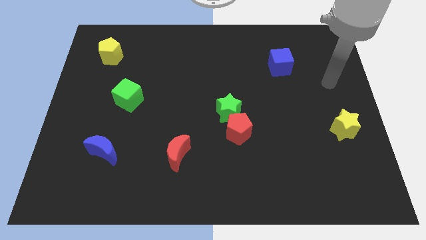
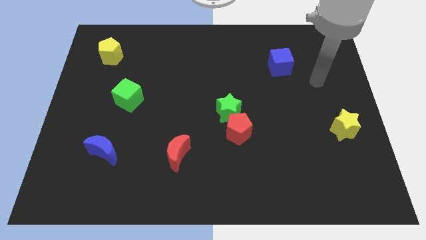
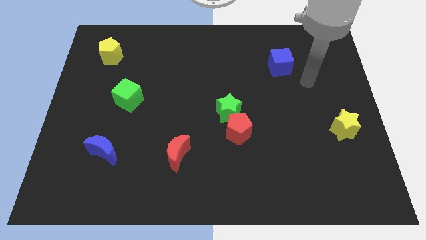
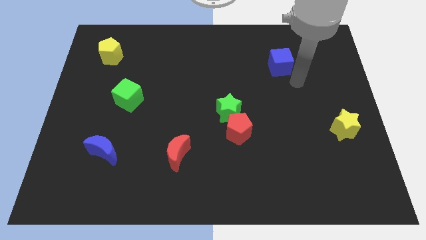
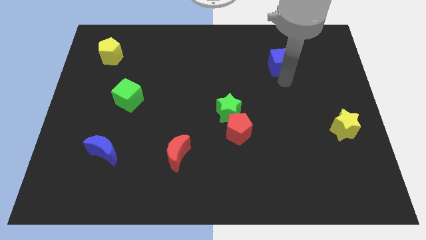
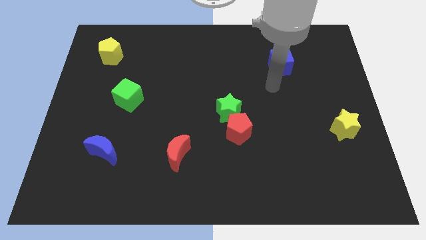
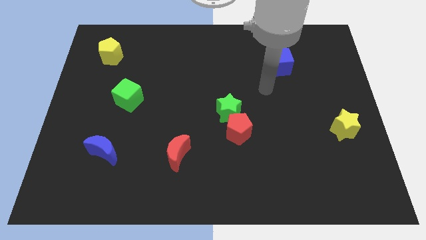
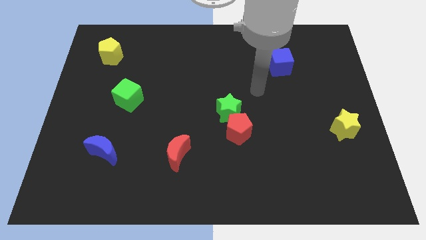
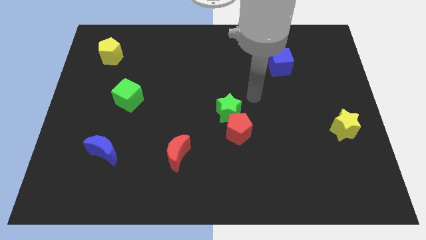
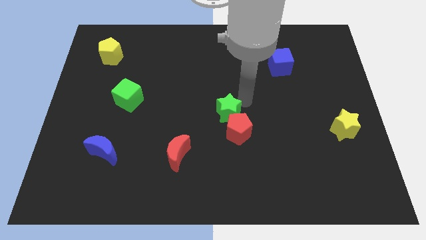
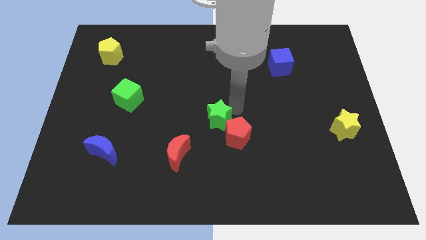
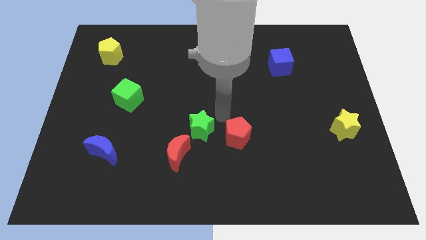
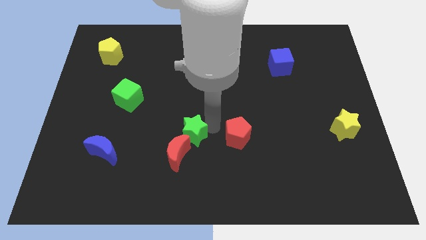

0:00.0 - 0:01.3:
pull the red pentagon apart from the green star

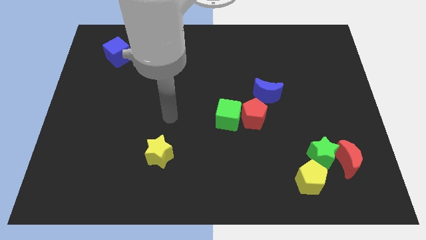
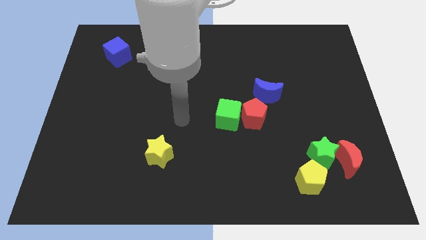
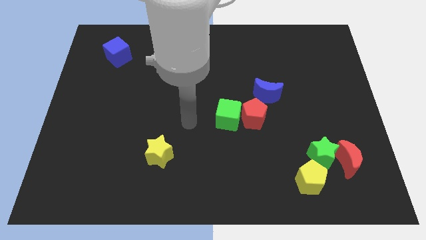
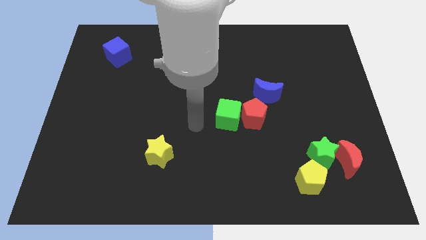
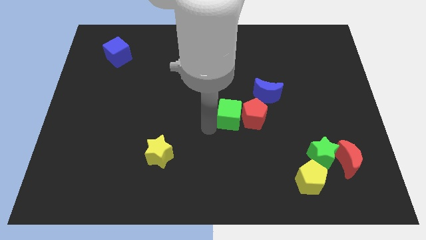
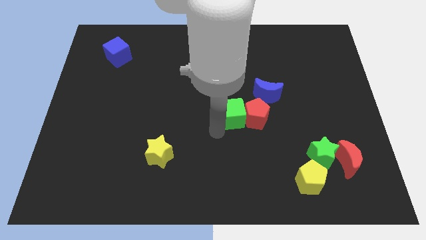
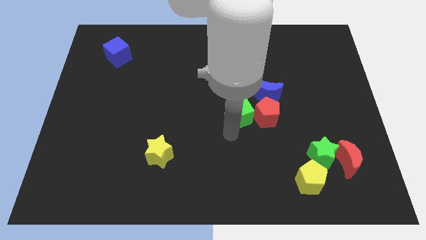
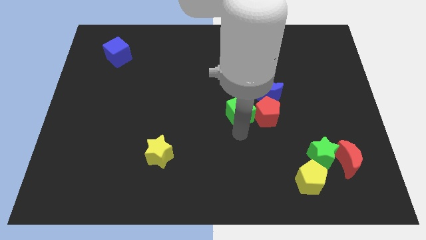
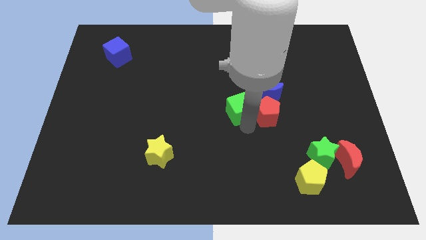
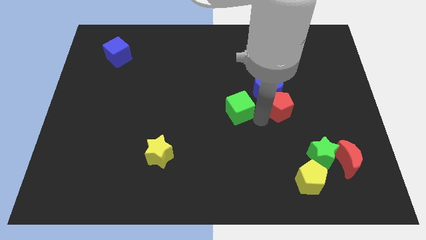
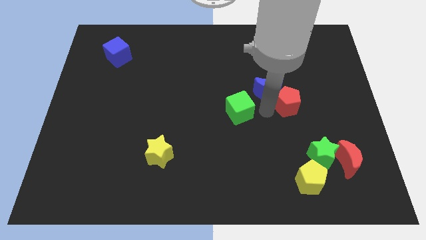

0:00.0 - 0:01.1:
separate the green cube from the red pentagon

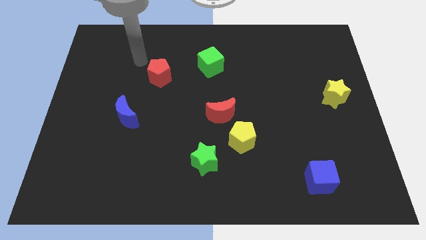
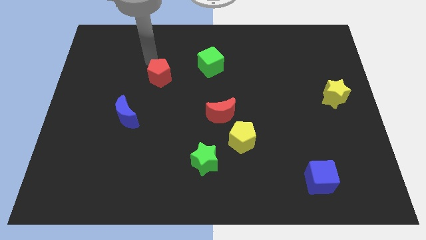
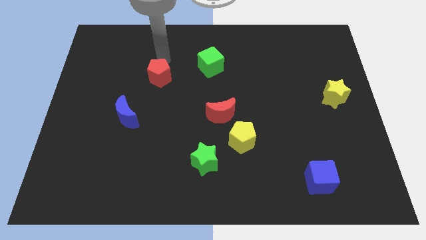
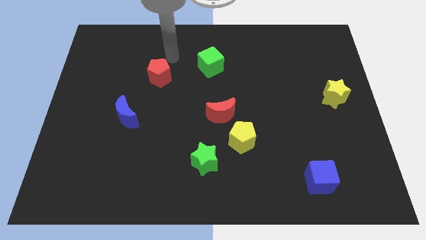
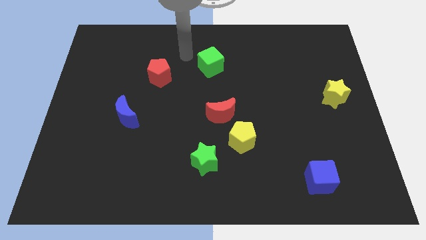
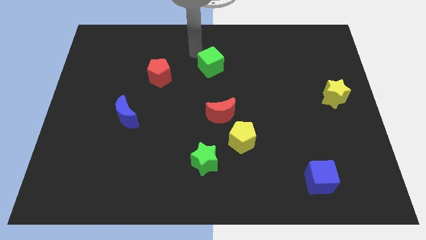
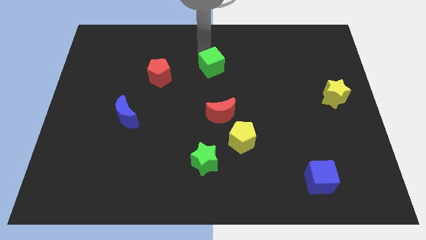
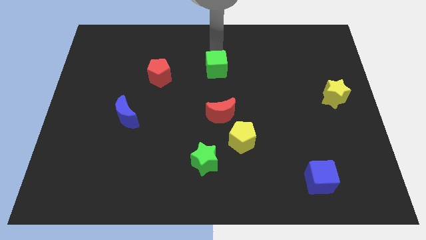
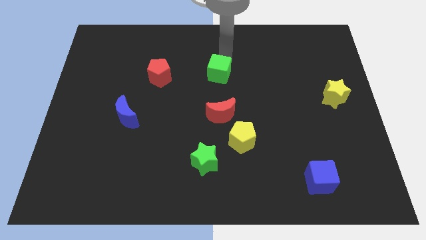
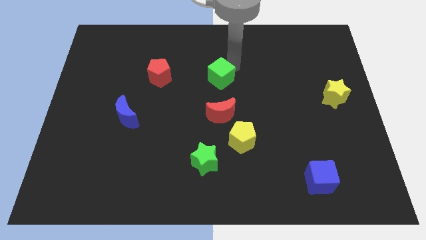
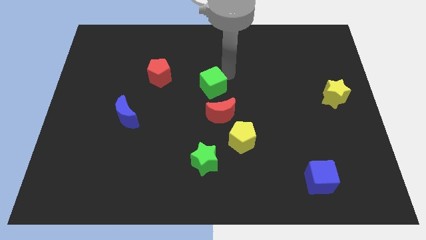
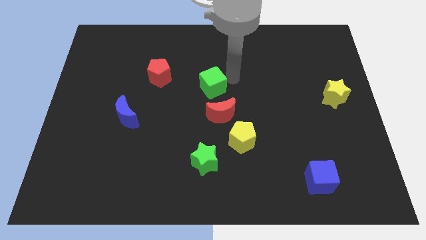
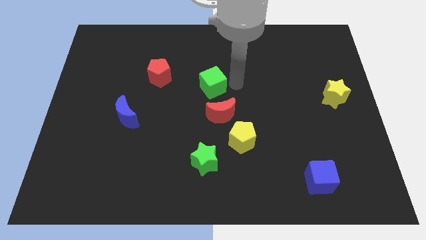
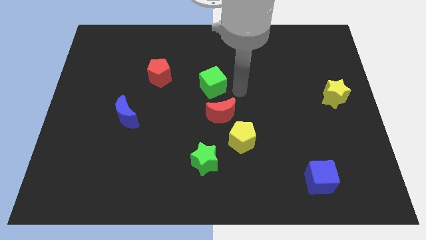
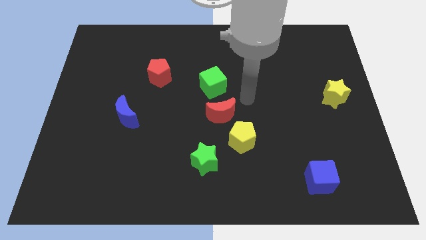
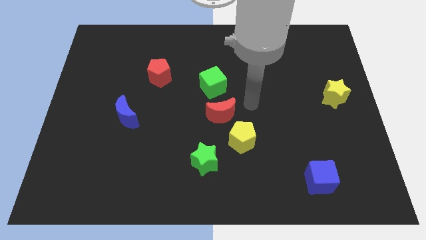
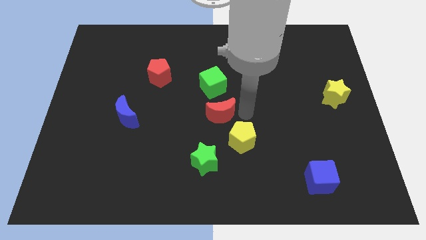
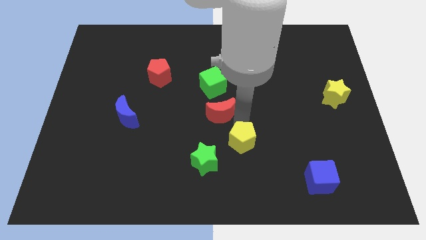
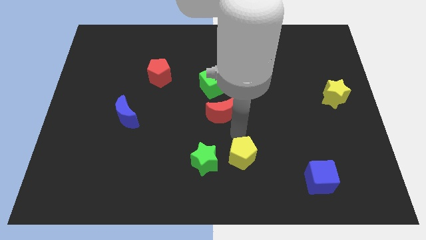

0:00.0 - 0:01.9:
pull the red moon apart from the yellow pentagon

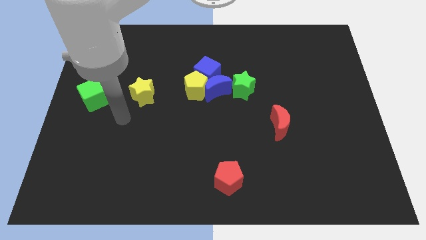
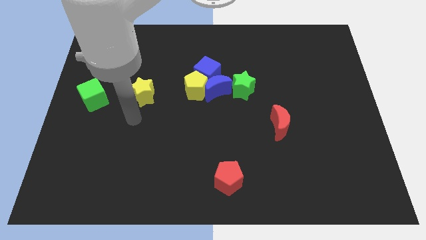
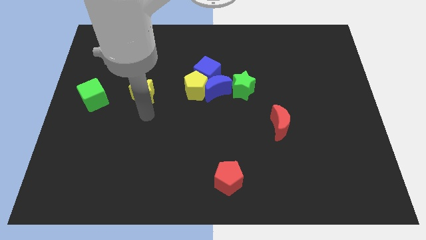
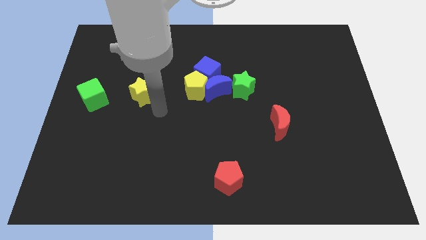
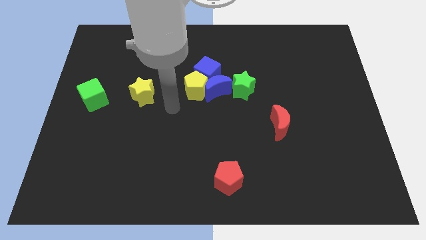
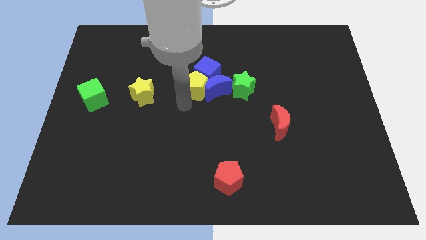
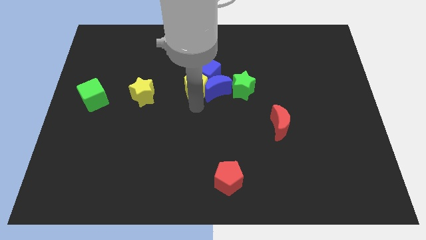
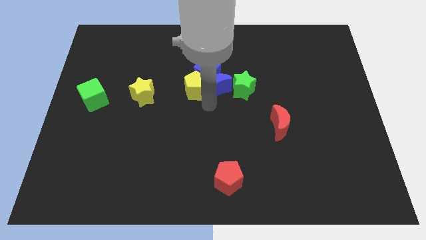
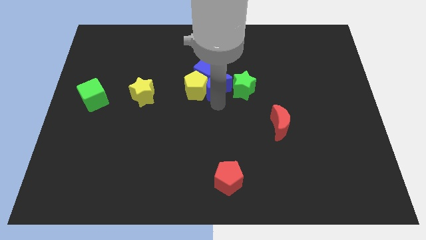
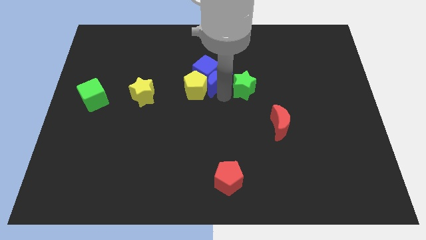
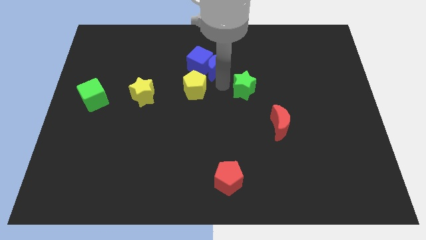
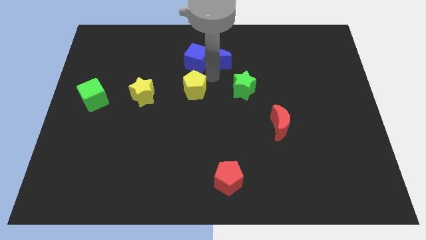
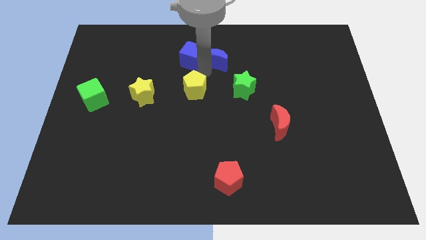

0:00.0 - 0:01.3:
move the yellow pentagon away from the blue moon and blue cube

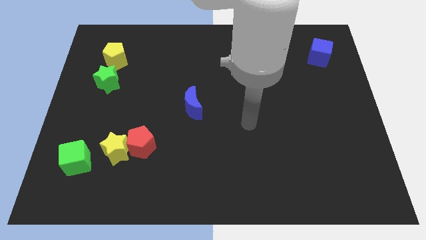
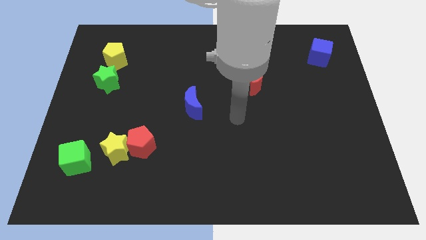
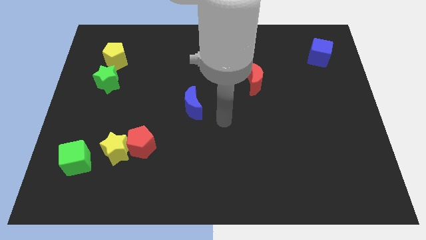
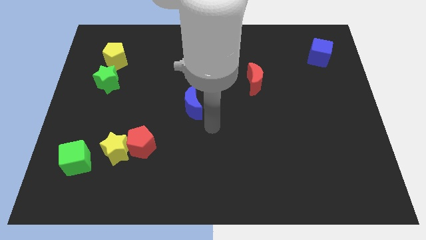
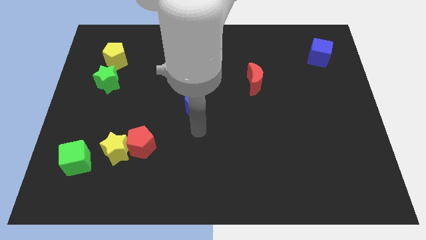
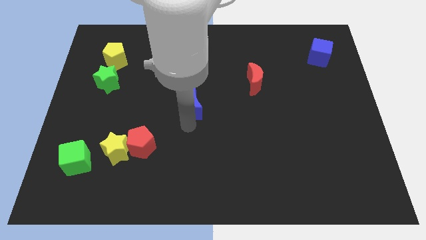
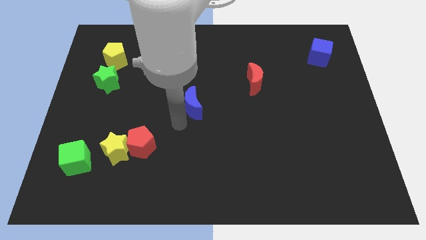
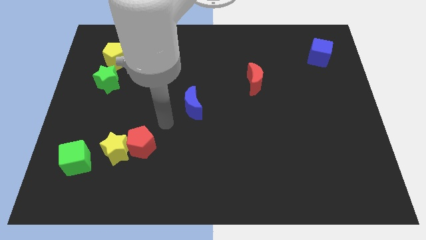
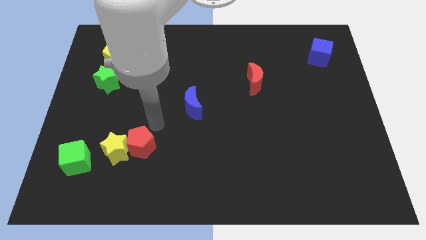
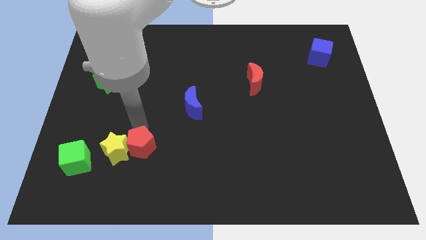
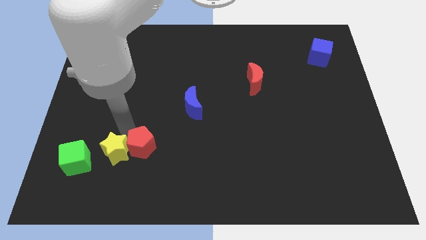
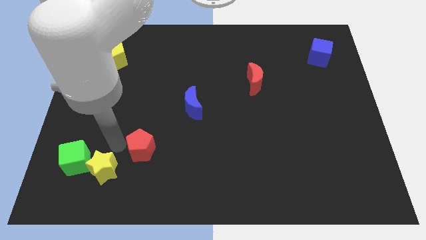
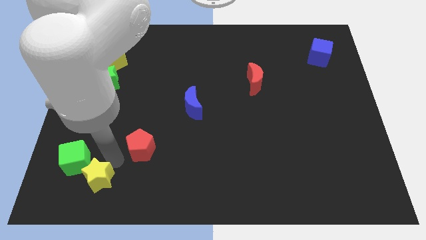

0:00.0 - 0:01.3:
move the red pentagon away from the yellow star

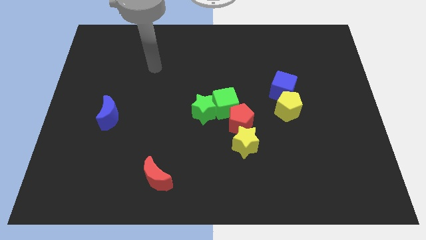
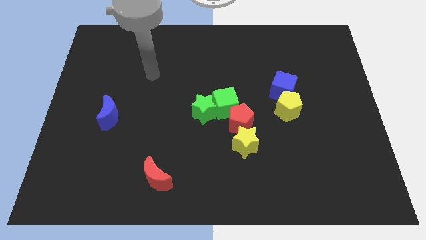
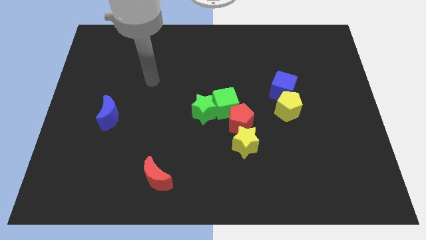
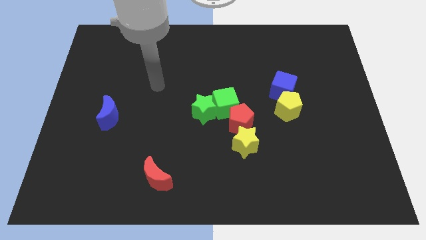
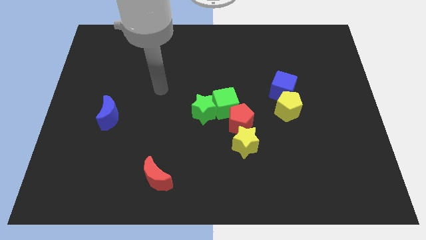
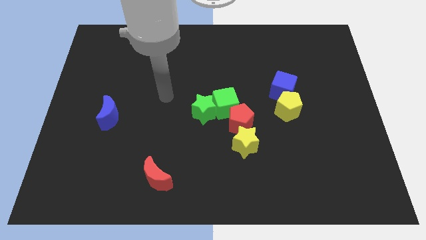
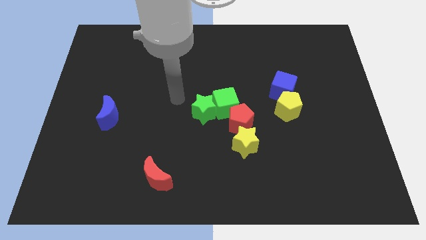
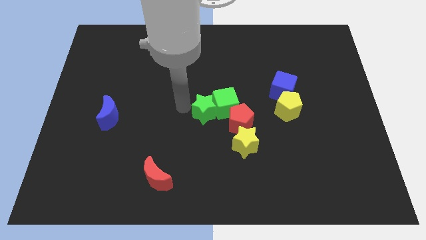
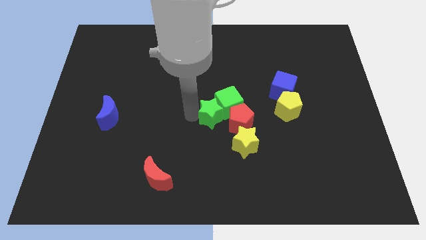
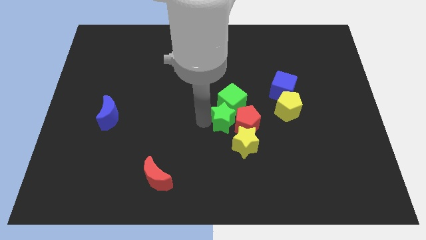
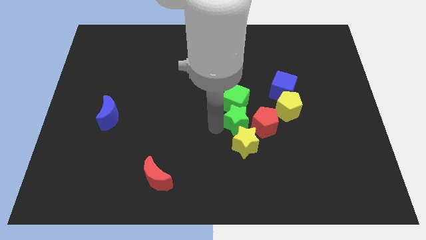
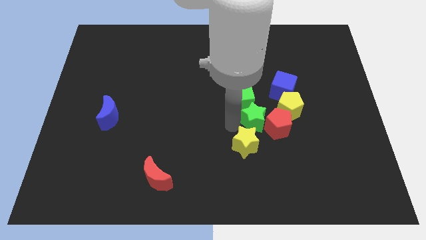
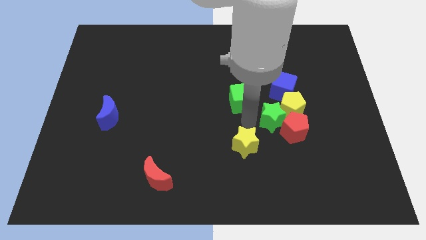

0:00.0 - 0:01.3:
separate the green cube from the green star and red pentagon

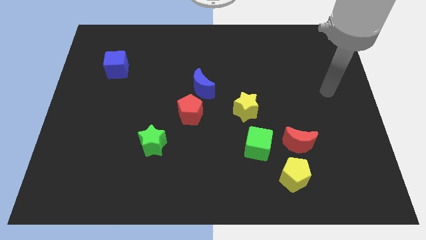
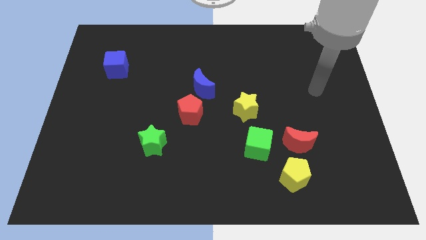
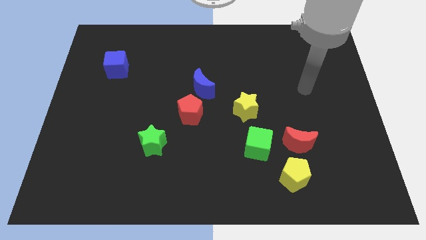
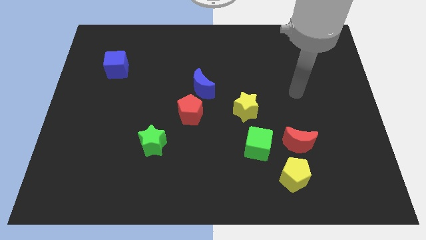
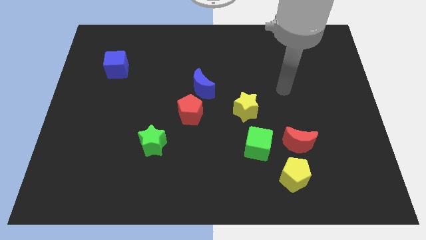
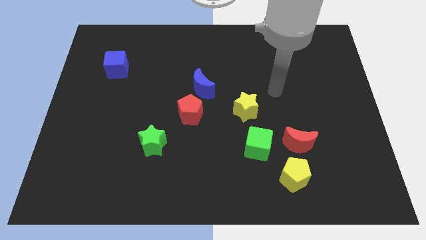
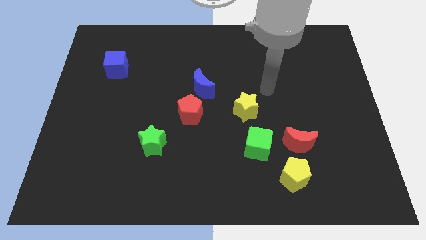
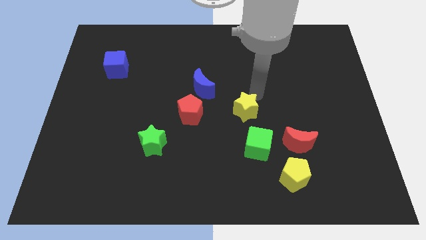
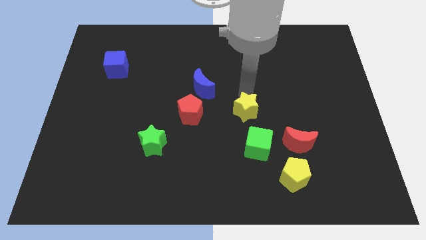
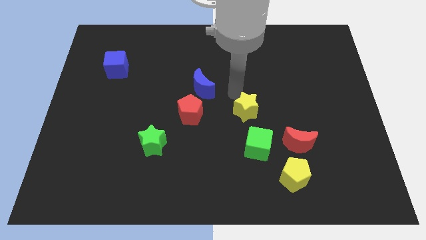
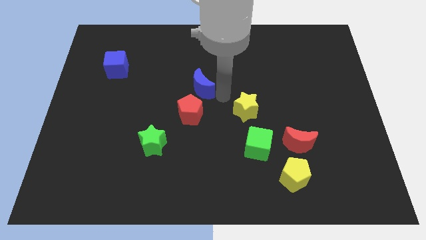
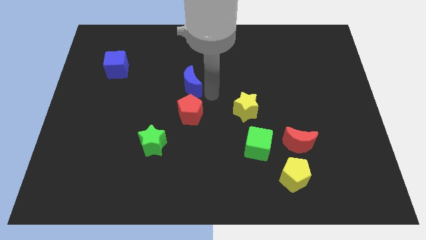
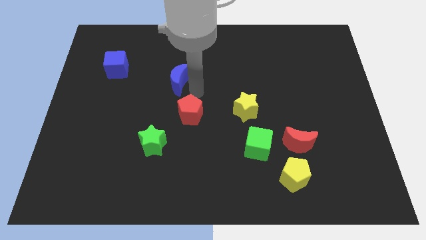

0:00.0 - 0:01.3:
separate the red pentagon from the blue moon
